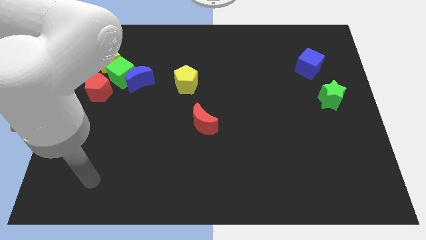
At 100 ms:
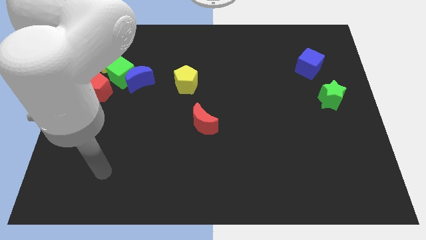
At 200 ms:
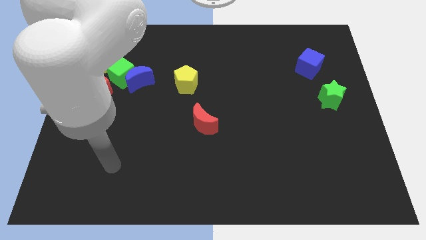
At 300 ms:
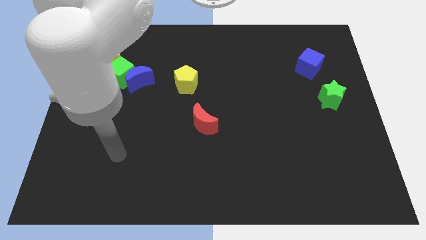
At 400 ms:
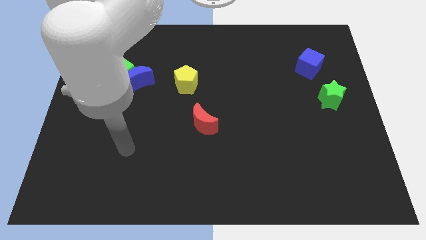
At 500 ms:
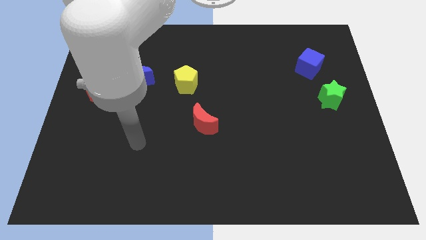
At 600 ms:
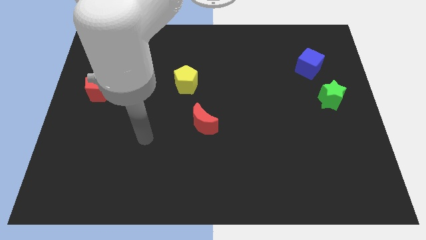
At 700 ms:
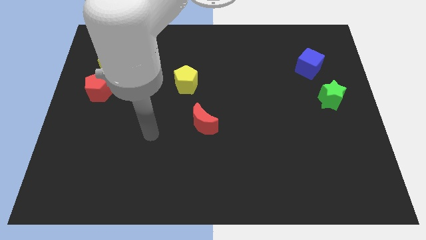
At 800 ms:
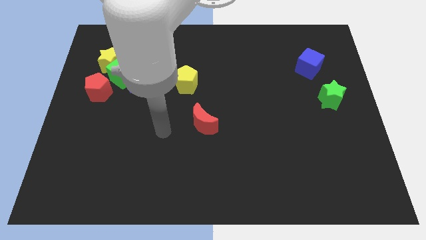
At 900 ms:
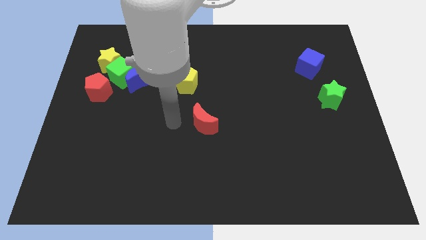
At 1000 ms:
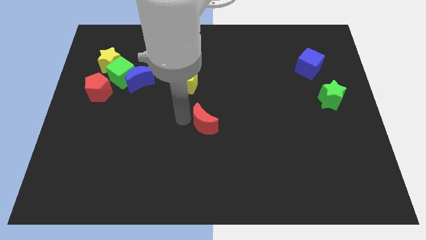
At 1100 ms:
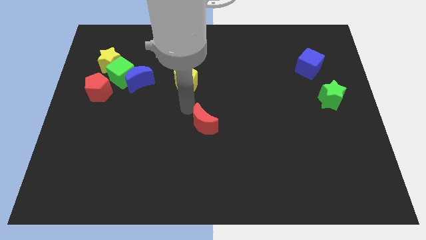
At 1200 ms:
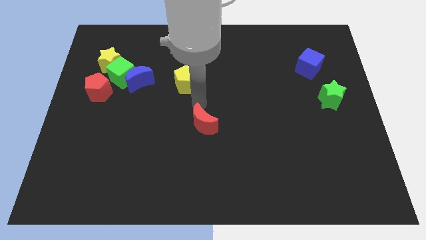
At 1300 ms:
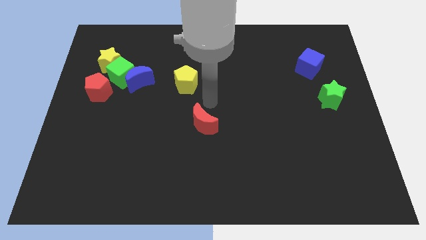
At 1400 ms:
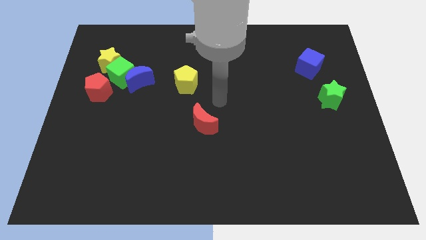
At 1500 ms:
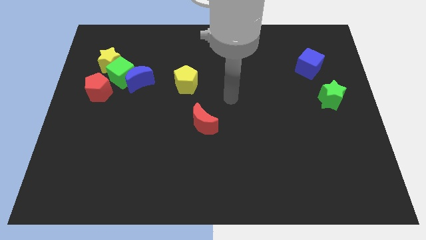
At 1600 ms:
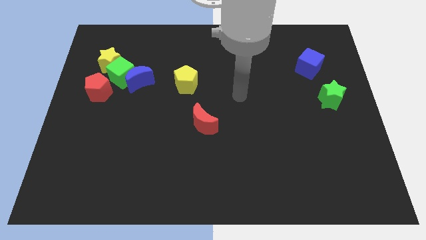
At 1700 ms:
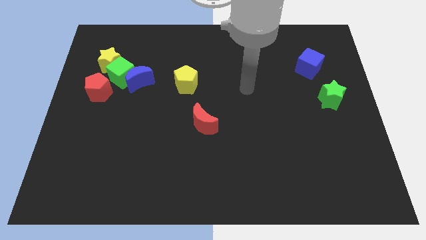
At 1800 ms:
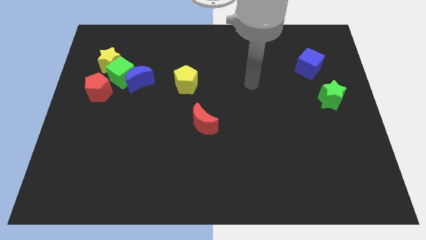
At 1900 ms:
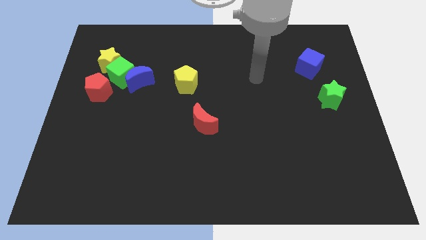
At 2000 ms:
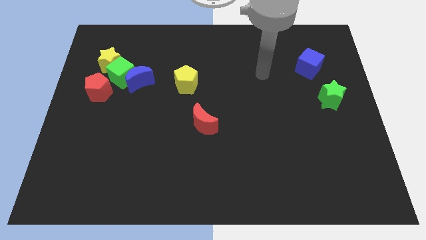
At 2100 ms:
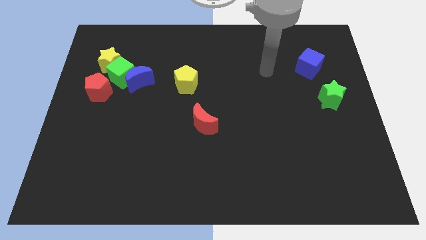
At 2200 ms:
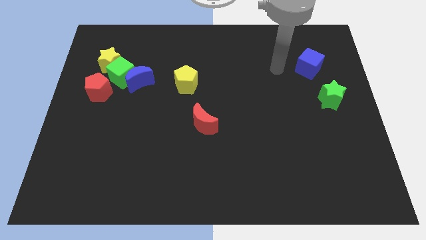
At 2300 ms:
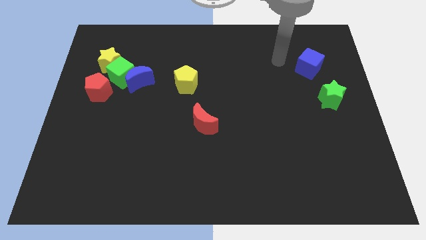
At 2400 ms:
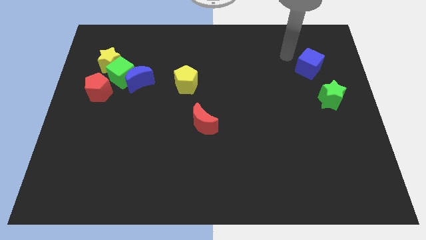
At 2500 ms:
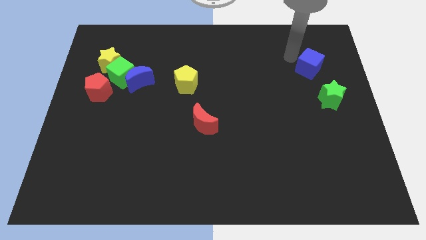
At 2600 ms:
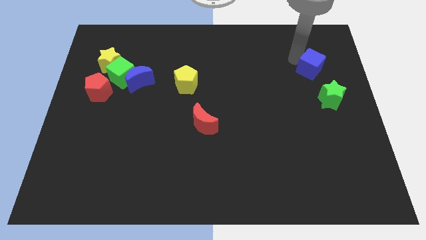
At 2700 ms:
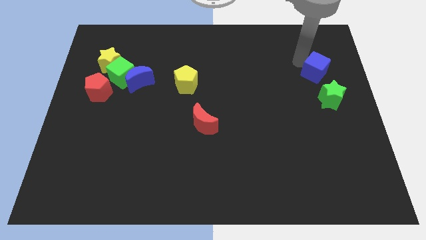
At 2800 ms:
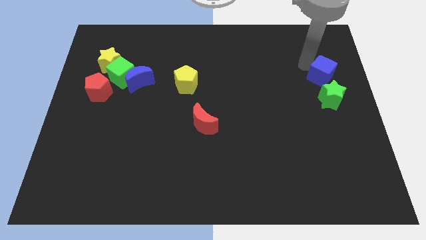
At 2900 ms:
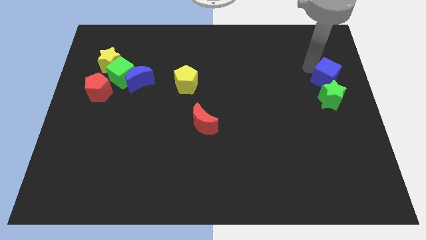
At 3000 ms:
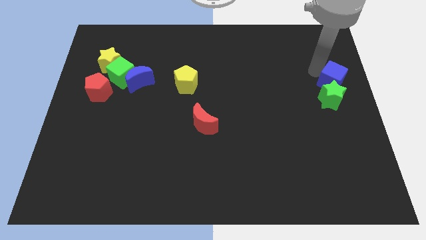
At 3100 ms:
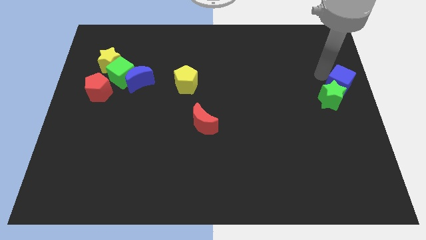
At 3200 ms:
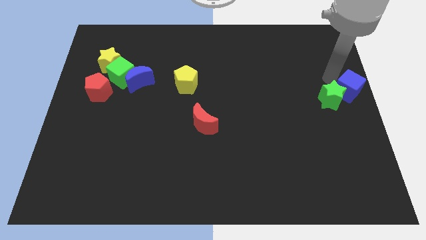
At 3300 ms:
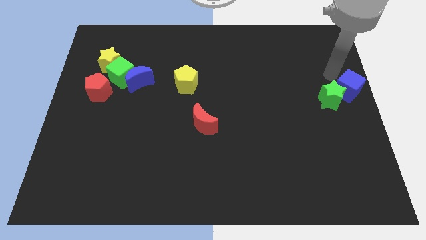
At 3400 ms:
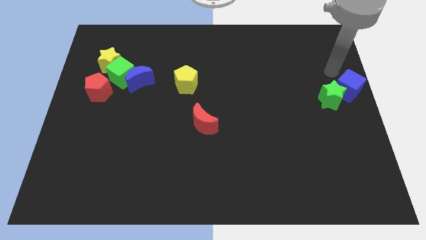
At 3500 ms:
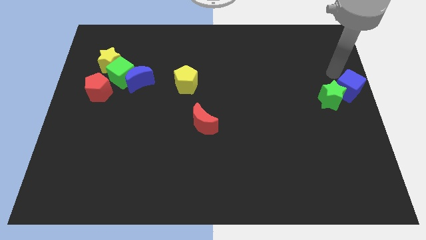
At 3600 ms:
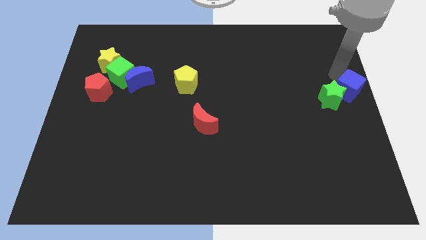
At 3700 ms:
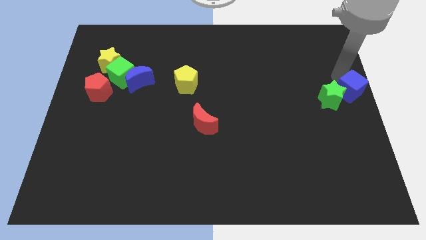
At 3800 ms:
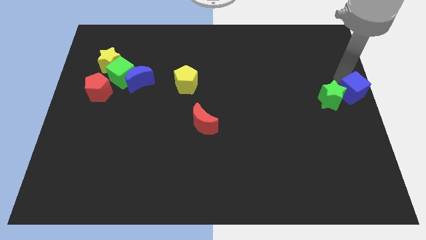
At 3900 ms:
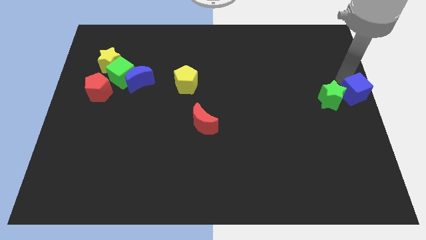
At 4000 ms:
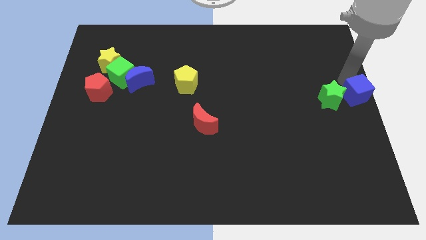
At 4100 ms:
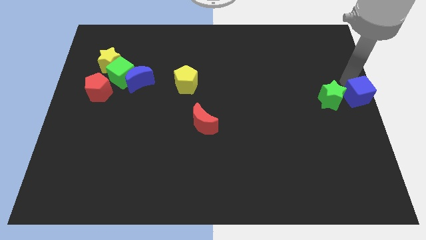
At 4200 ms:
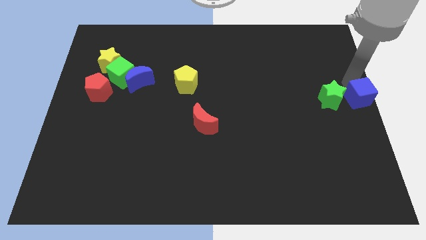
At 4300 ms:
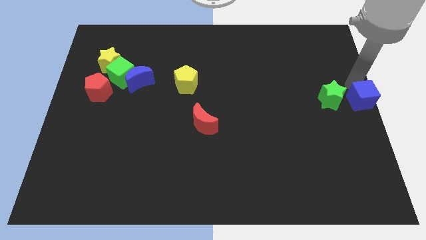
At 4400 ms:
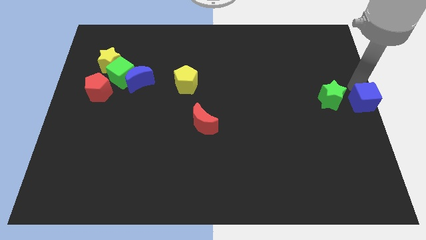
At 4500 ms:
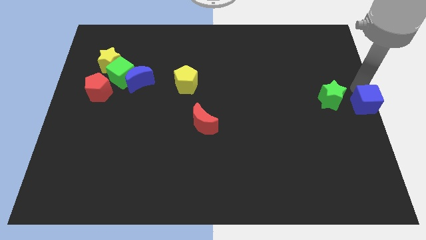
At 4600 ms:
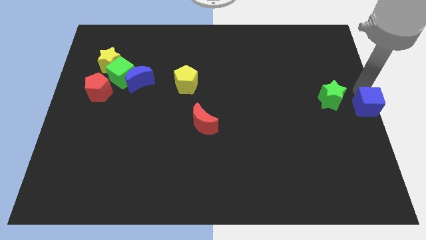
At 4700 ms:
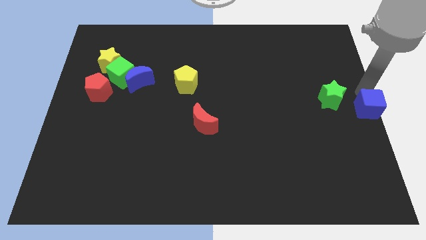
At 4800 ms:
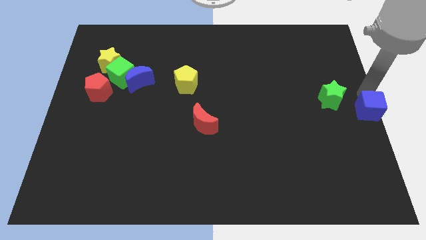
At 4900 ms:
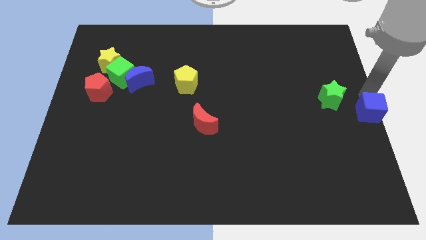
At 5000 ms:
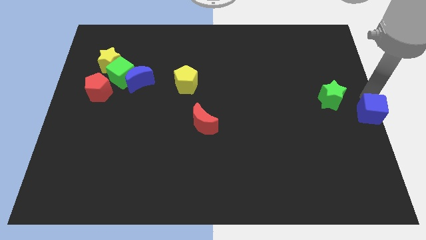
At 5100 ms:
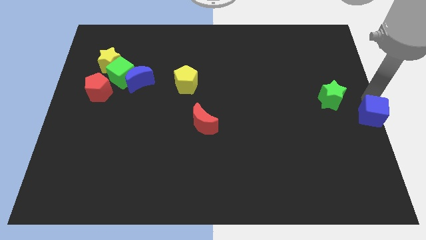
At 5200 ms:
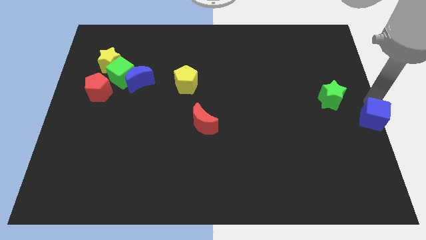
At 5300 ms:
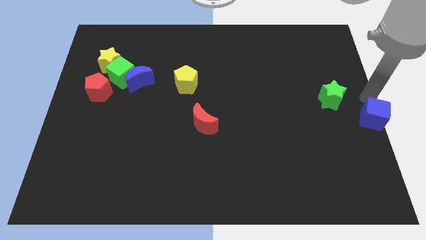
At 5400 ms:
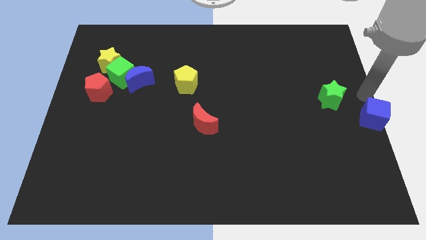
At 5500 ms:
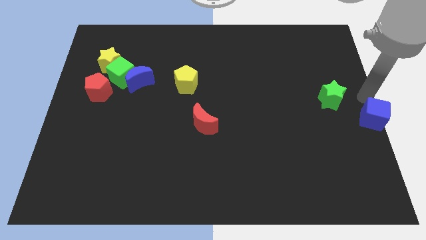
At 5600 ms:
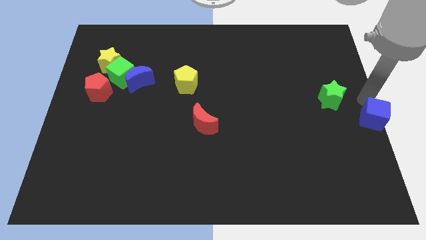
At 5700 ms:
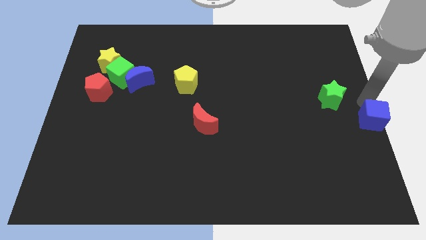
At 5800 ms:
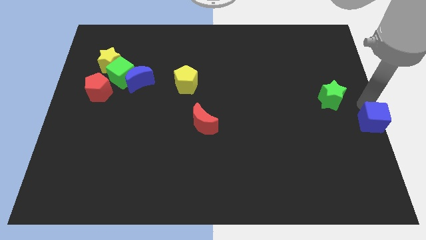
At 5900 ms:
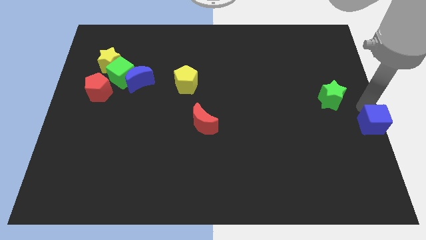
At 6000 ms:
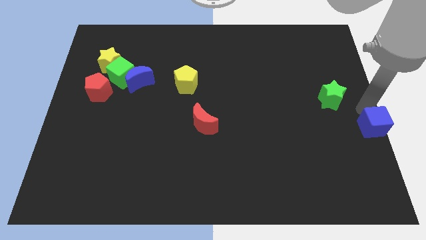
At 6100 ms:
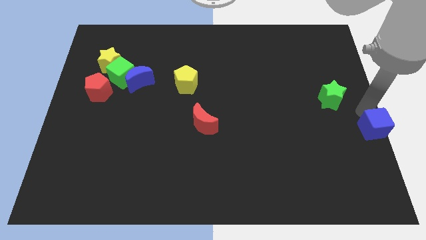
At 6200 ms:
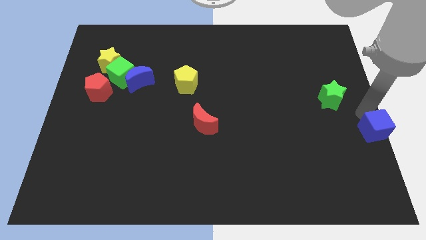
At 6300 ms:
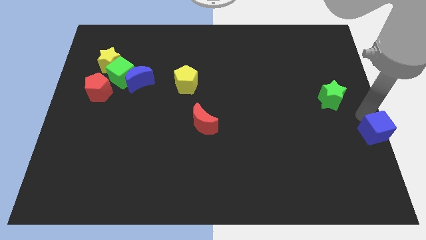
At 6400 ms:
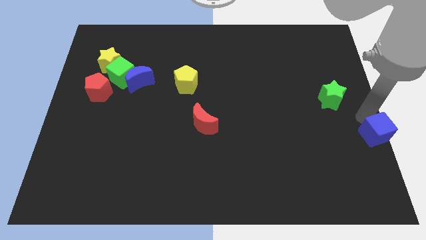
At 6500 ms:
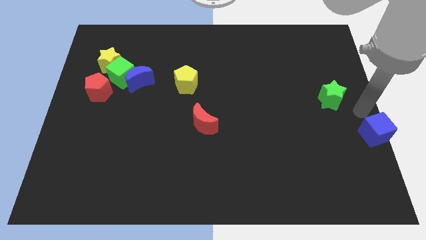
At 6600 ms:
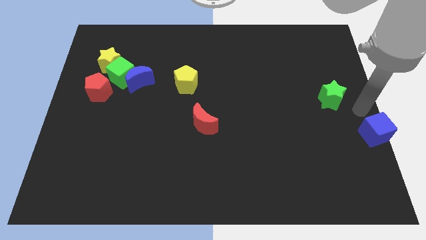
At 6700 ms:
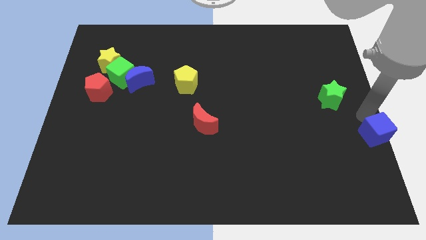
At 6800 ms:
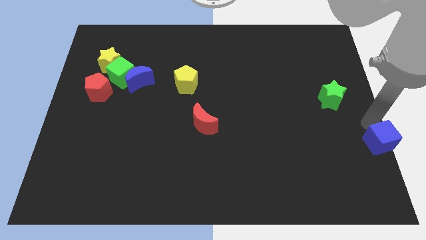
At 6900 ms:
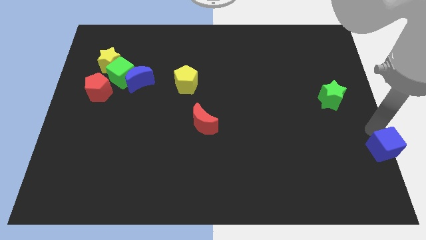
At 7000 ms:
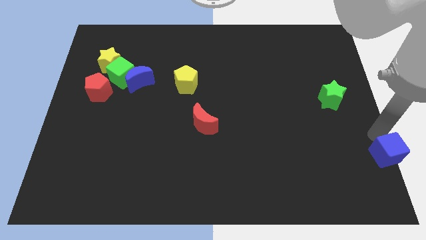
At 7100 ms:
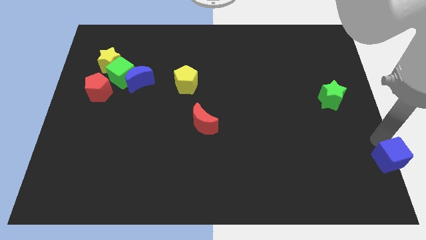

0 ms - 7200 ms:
push the blue cube to the bottom right

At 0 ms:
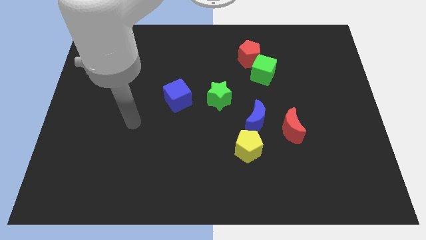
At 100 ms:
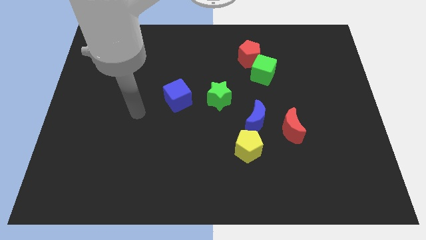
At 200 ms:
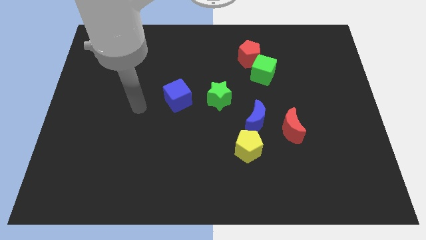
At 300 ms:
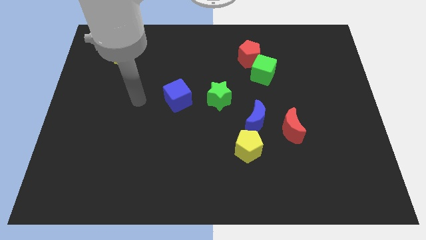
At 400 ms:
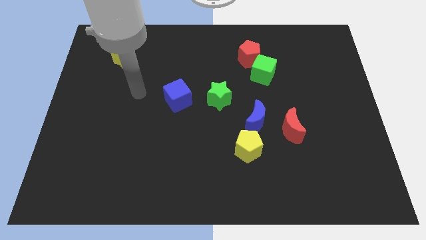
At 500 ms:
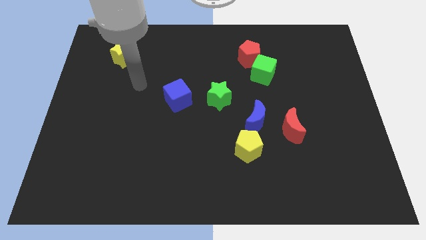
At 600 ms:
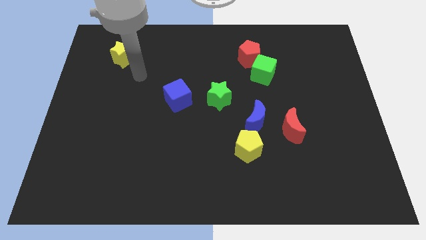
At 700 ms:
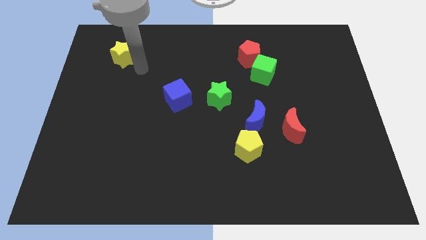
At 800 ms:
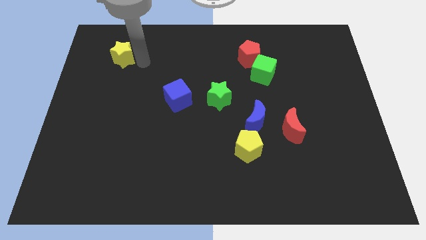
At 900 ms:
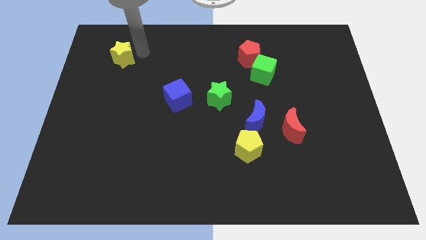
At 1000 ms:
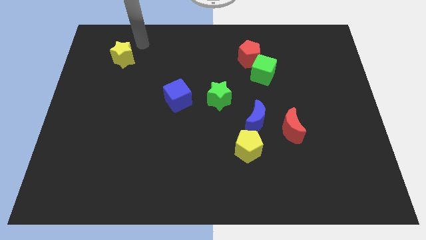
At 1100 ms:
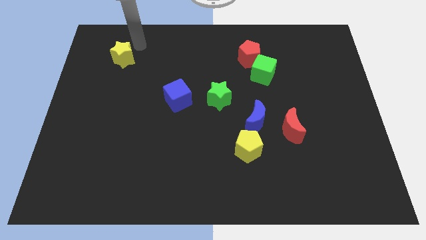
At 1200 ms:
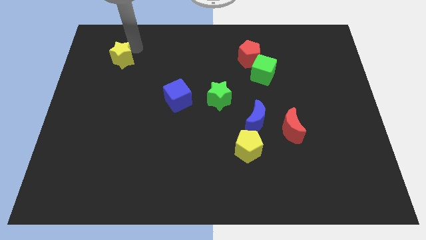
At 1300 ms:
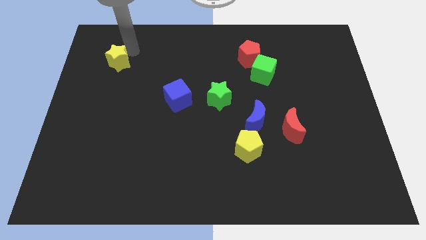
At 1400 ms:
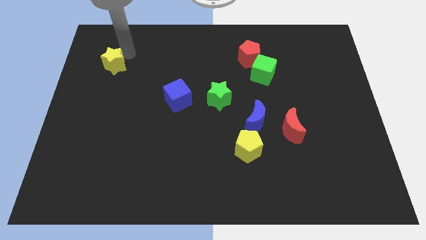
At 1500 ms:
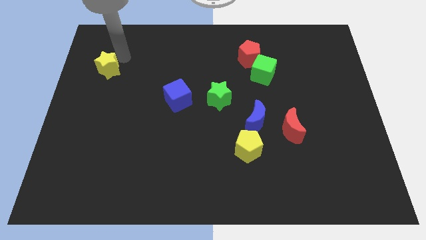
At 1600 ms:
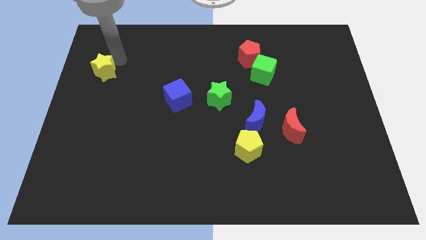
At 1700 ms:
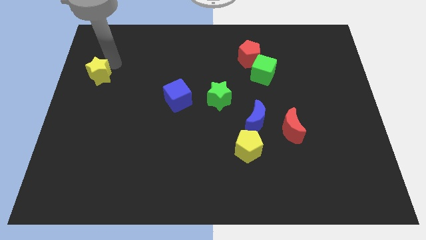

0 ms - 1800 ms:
move the yellow star to the left side
